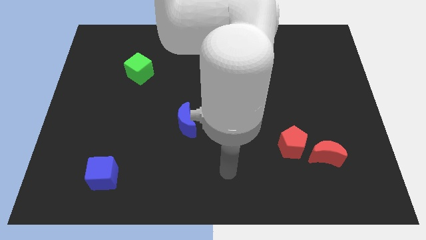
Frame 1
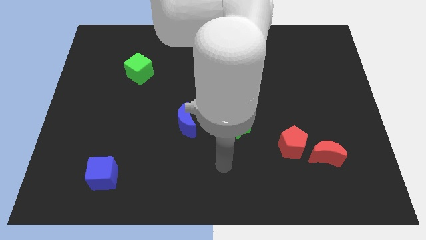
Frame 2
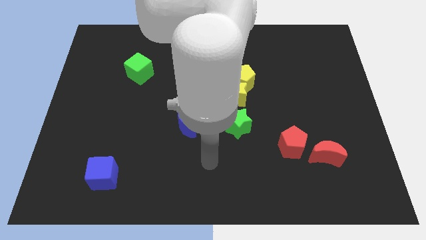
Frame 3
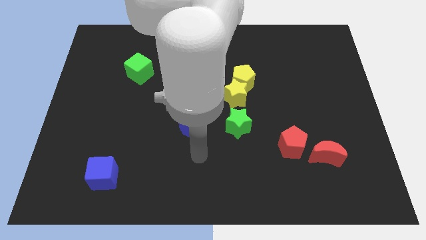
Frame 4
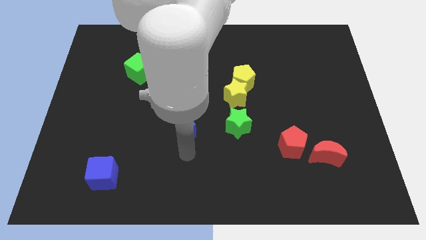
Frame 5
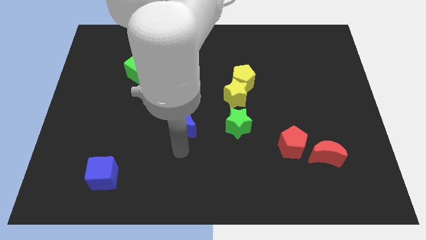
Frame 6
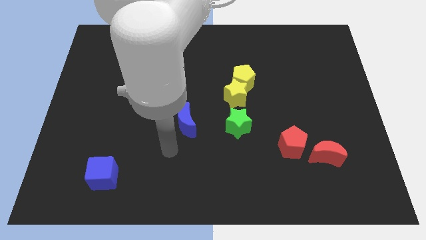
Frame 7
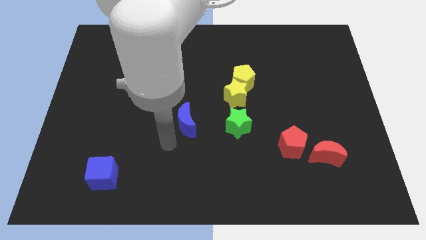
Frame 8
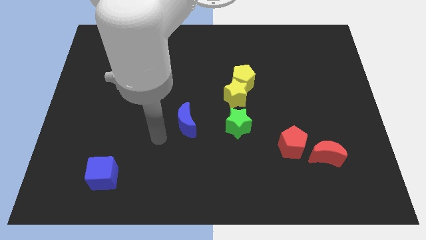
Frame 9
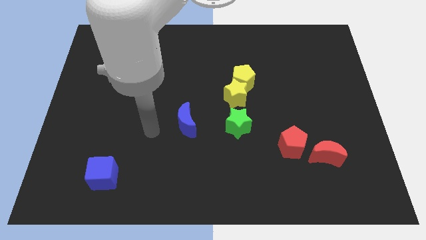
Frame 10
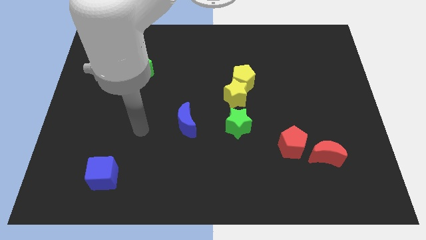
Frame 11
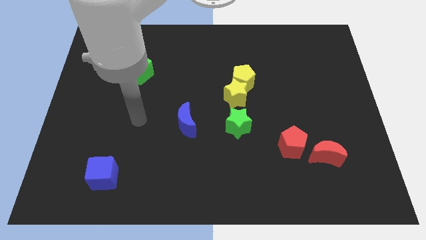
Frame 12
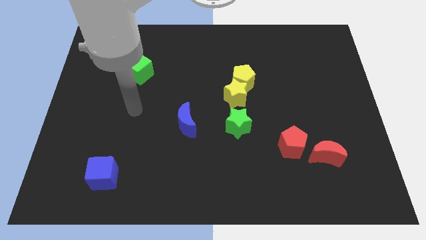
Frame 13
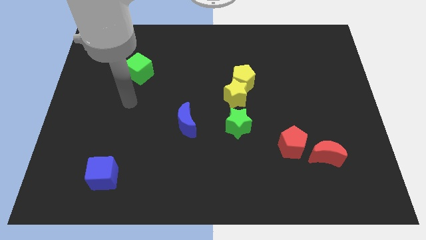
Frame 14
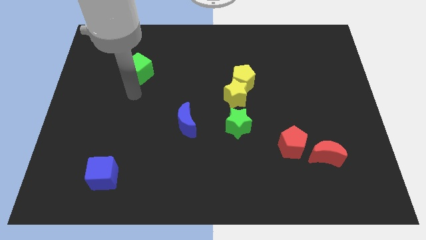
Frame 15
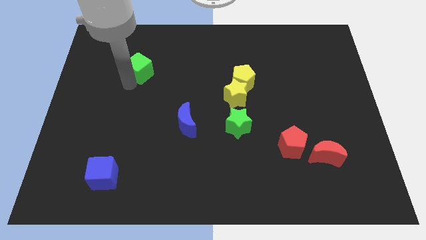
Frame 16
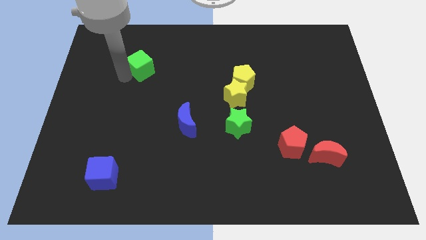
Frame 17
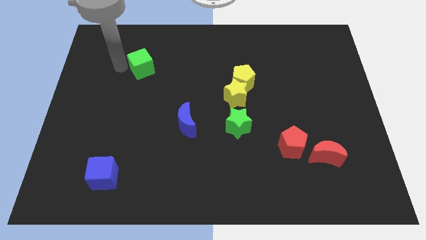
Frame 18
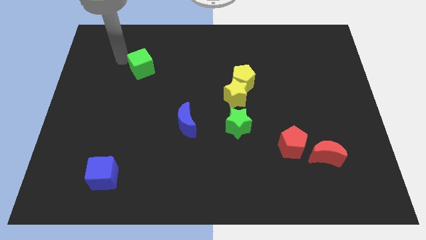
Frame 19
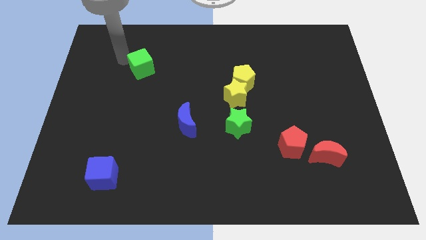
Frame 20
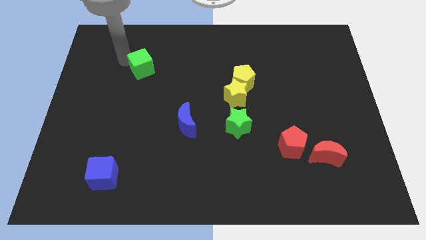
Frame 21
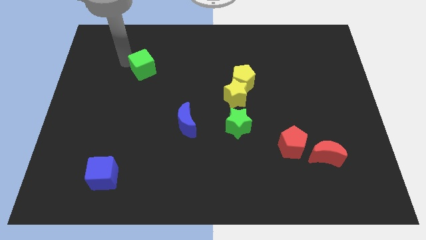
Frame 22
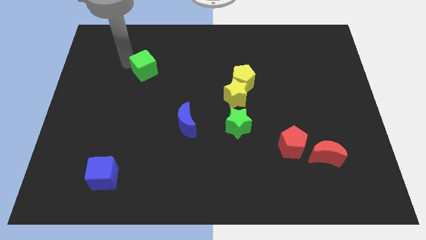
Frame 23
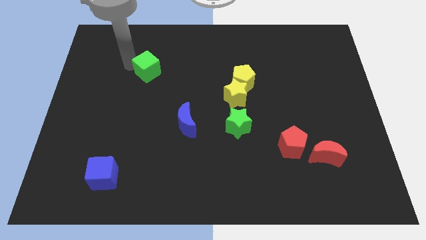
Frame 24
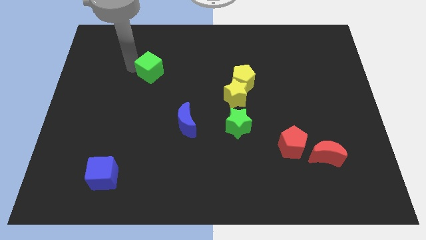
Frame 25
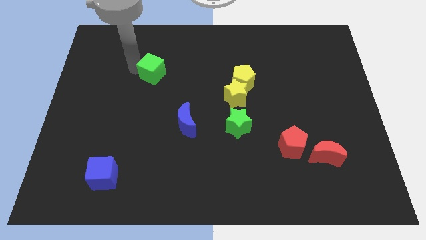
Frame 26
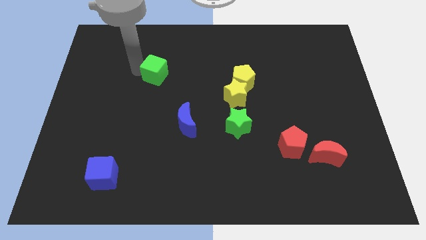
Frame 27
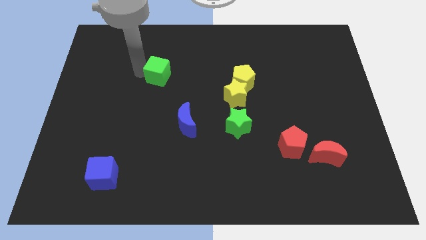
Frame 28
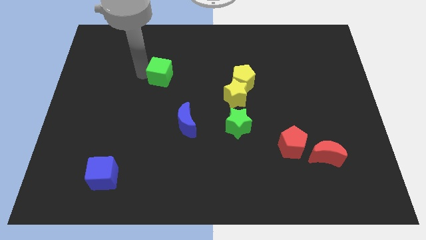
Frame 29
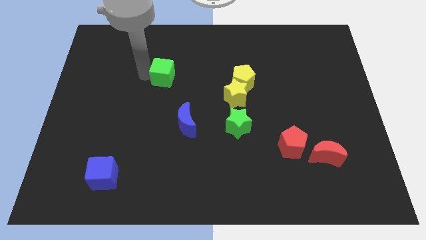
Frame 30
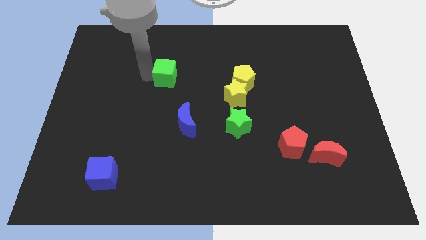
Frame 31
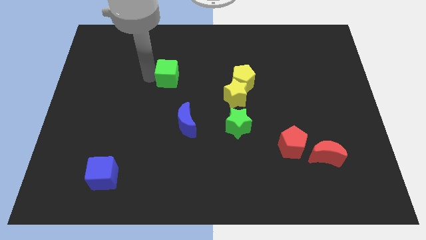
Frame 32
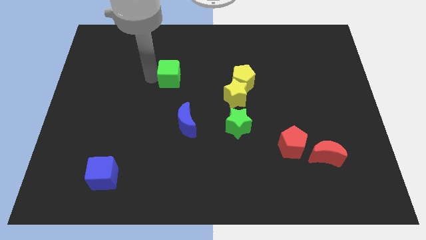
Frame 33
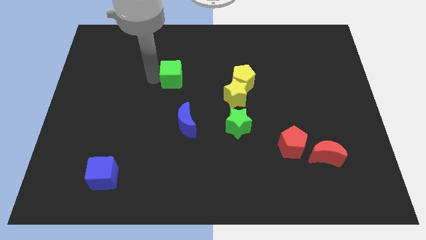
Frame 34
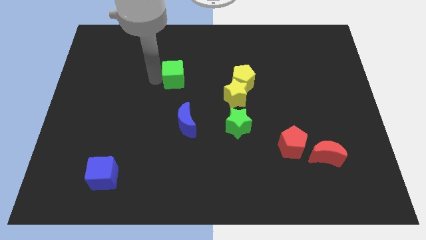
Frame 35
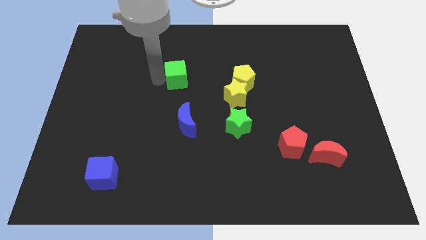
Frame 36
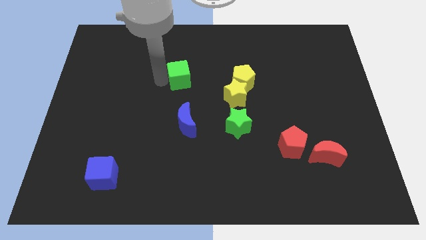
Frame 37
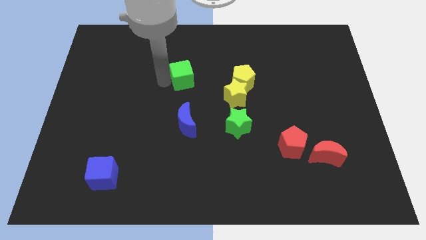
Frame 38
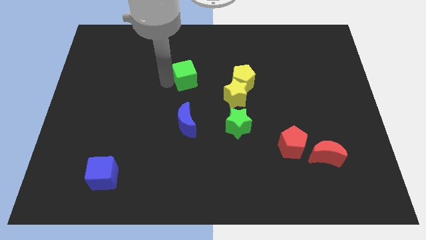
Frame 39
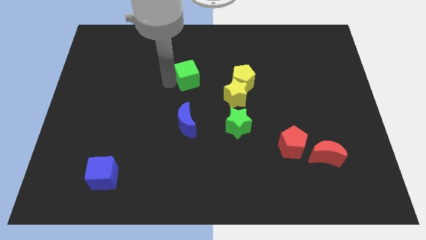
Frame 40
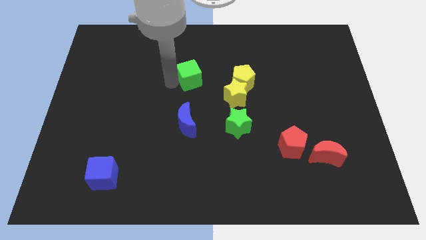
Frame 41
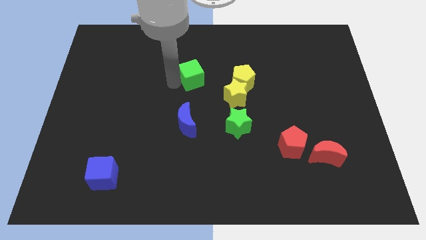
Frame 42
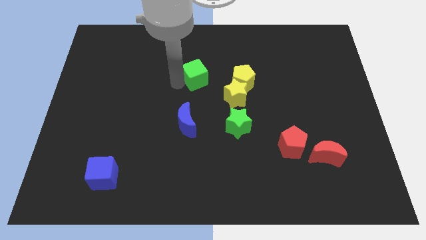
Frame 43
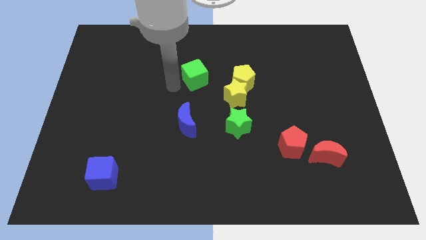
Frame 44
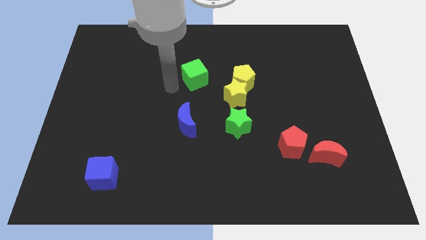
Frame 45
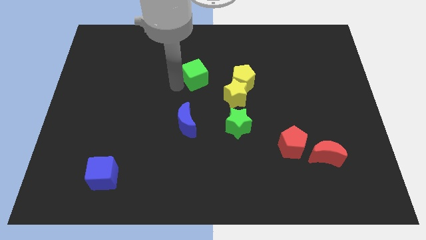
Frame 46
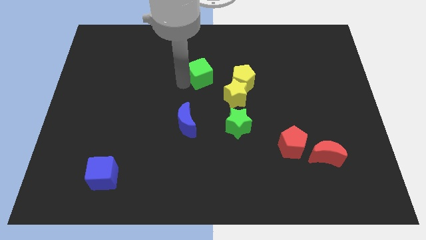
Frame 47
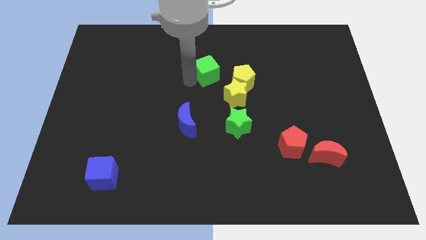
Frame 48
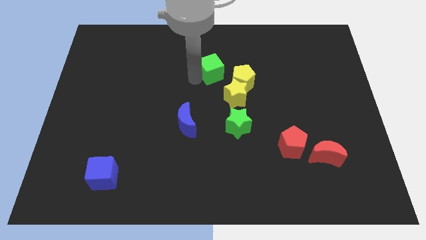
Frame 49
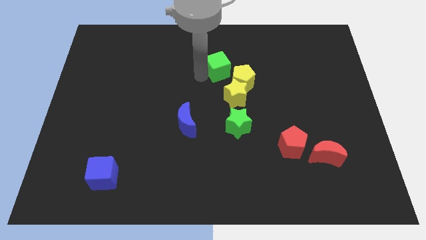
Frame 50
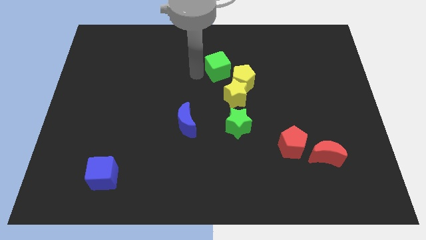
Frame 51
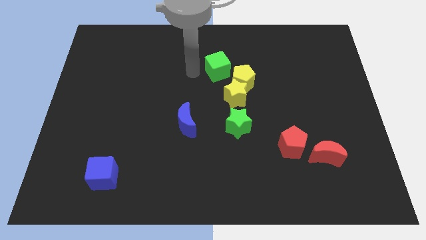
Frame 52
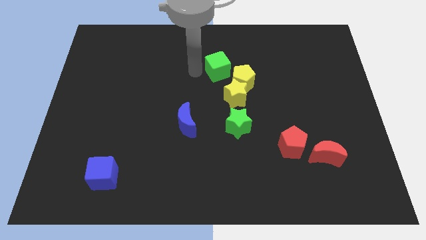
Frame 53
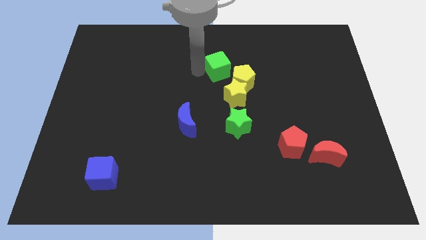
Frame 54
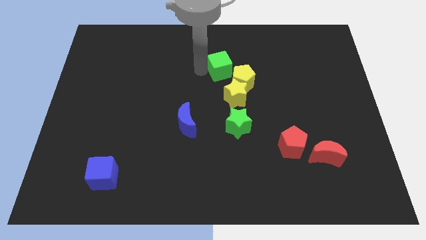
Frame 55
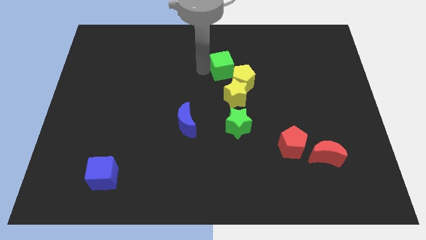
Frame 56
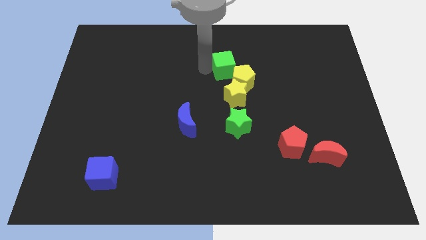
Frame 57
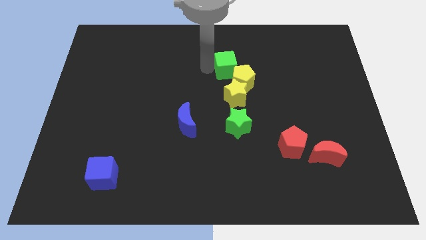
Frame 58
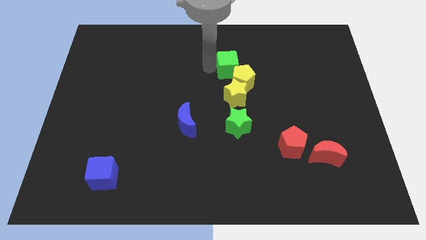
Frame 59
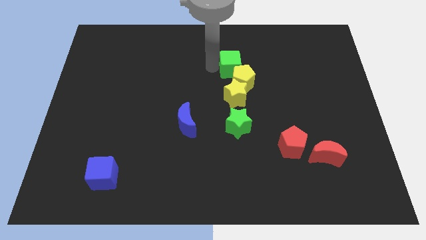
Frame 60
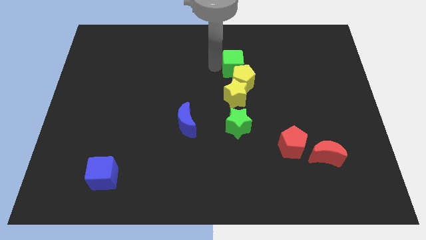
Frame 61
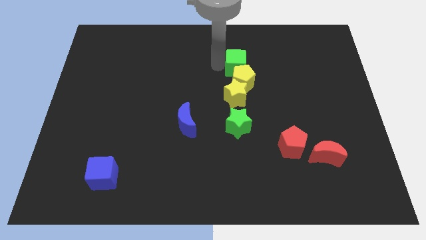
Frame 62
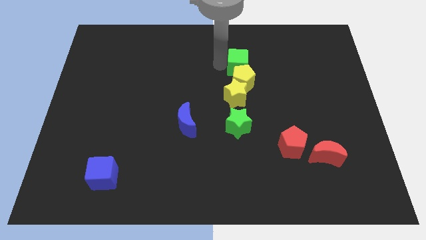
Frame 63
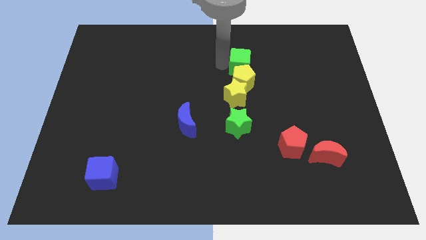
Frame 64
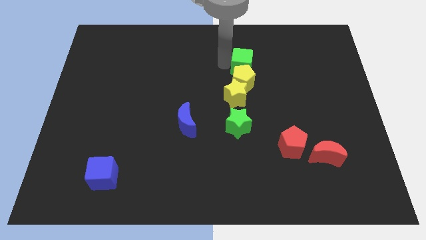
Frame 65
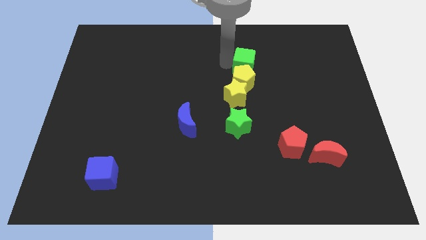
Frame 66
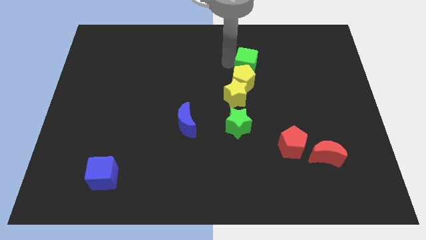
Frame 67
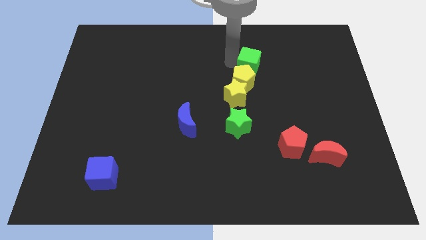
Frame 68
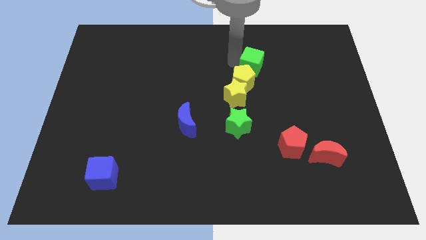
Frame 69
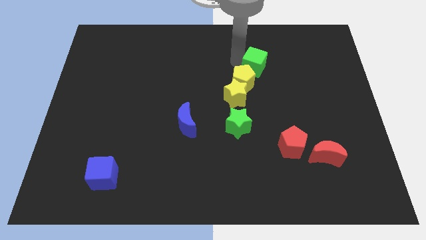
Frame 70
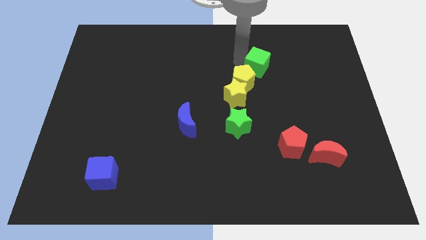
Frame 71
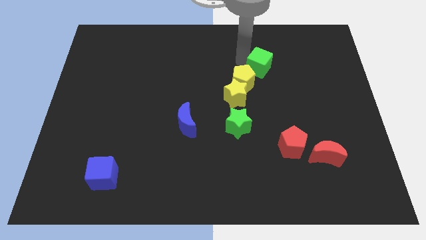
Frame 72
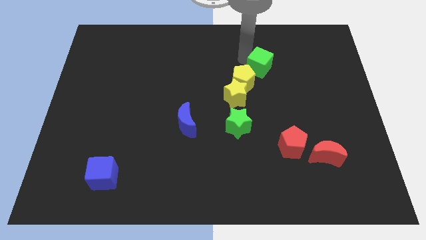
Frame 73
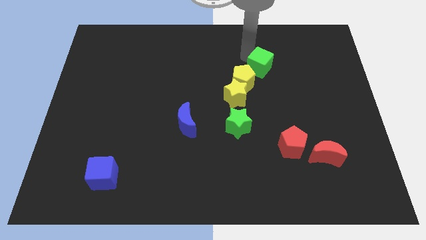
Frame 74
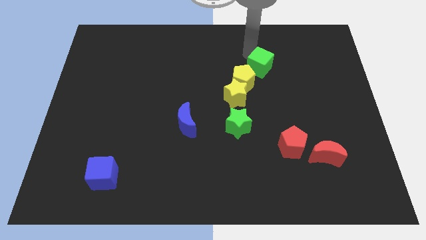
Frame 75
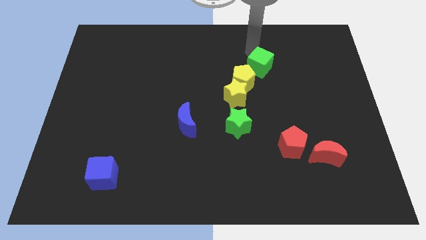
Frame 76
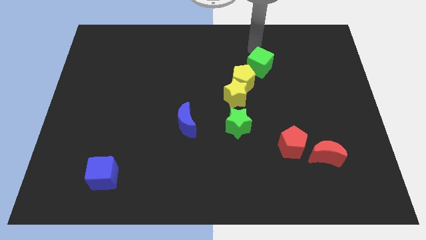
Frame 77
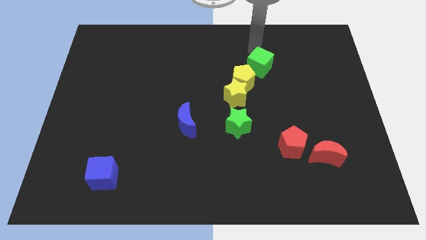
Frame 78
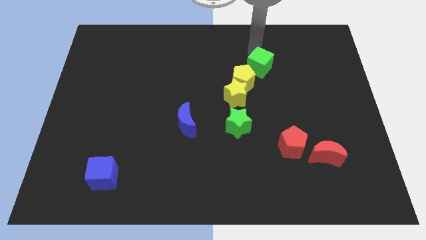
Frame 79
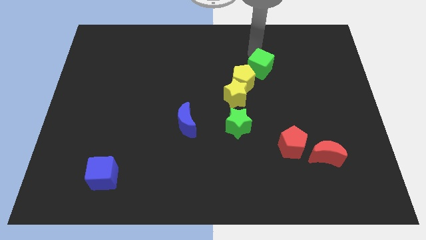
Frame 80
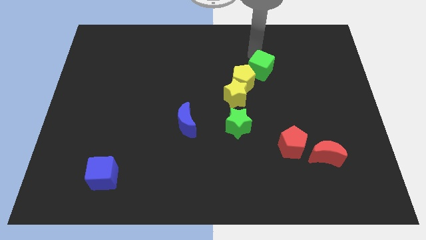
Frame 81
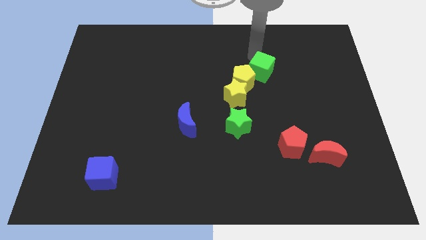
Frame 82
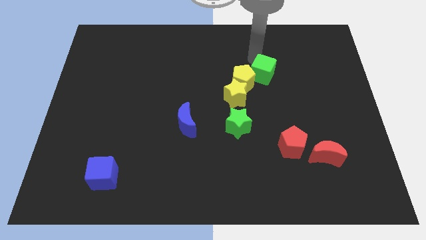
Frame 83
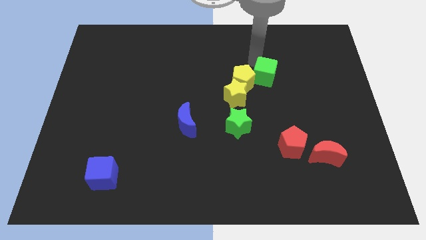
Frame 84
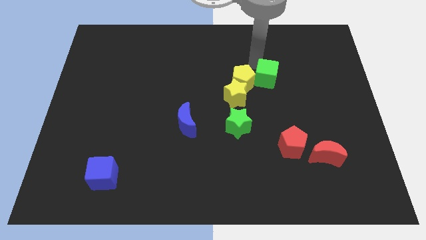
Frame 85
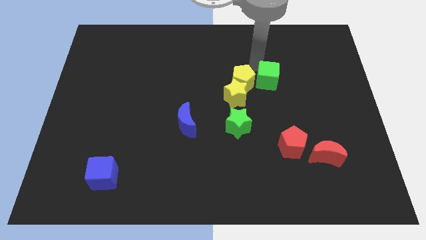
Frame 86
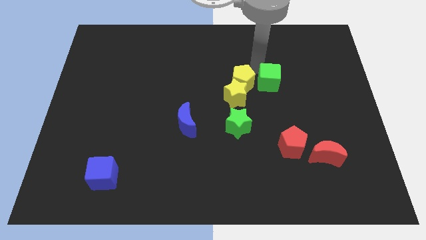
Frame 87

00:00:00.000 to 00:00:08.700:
slide the green cube to the bottom right side of the yellow pentagon
